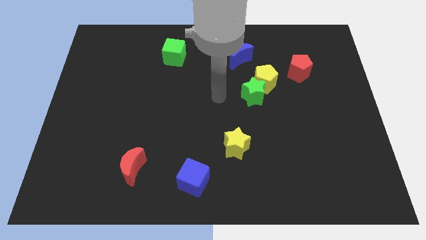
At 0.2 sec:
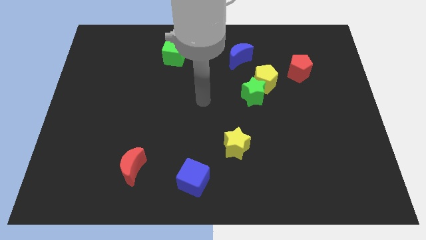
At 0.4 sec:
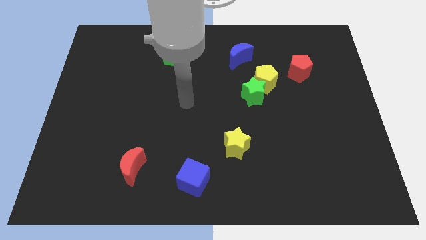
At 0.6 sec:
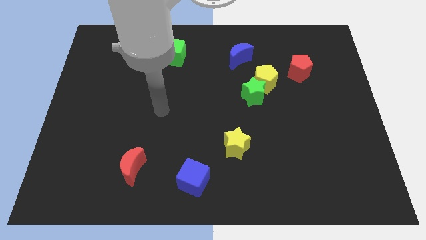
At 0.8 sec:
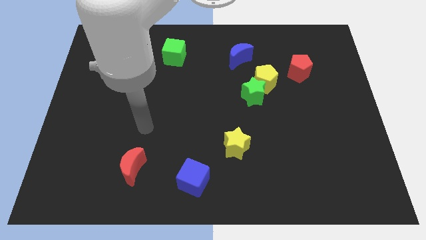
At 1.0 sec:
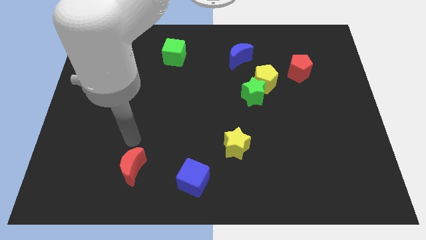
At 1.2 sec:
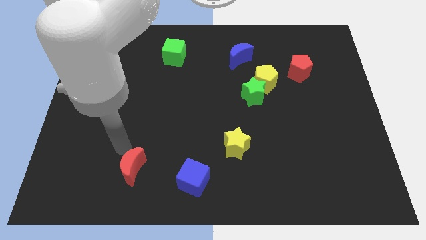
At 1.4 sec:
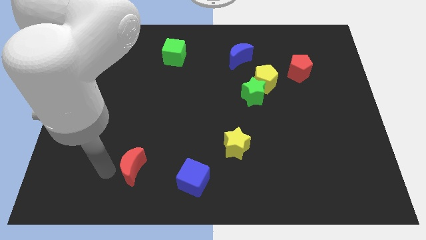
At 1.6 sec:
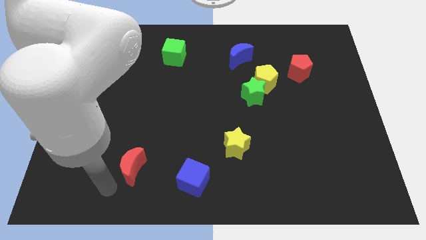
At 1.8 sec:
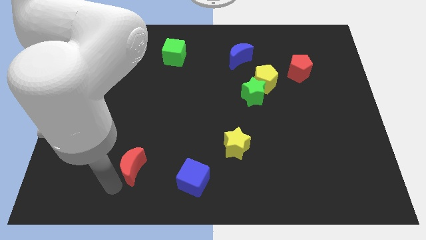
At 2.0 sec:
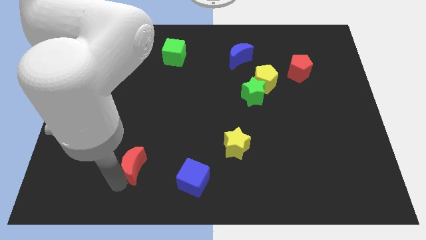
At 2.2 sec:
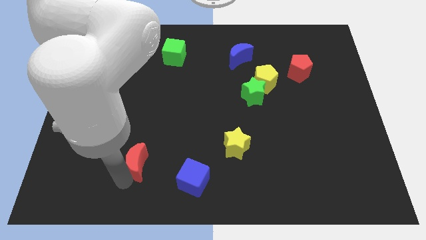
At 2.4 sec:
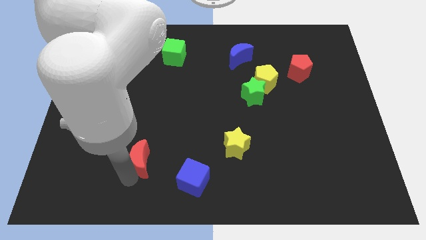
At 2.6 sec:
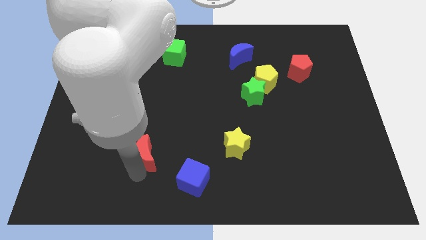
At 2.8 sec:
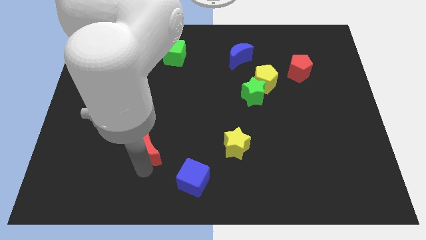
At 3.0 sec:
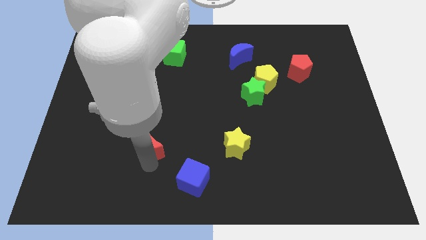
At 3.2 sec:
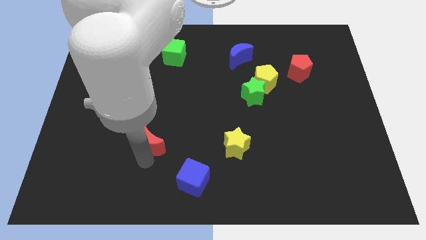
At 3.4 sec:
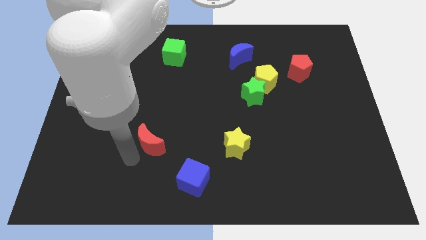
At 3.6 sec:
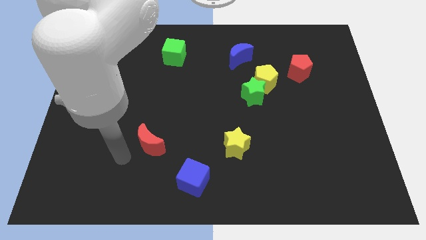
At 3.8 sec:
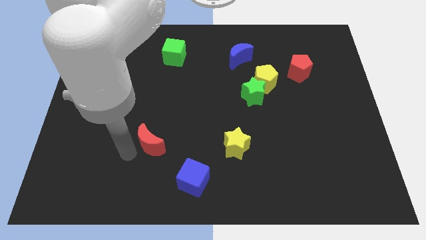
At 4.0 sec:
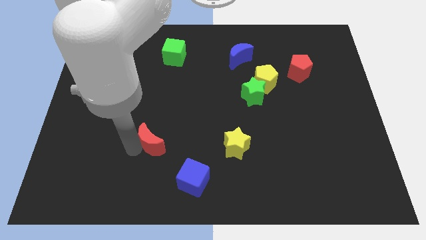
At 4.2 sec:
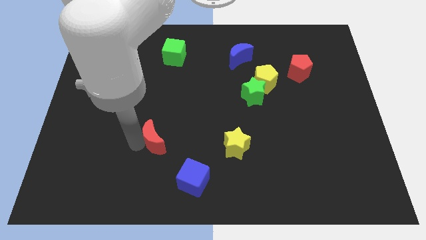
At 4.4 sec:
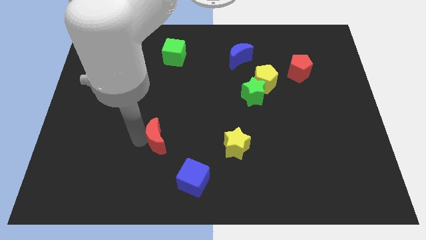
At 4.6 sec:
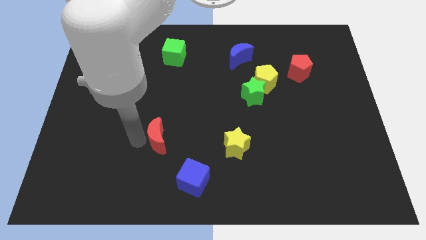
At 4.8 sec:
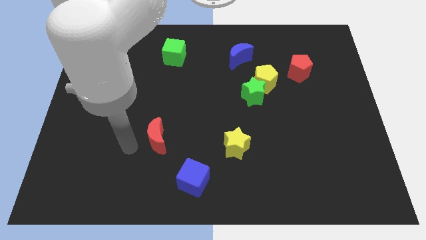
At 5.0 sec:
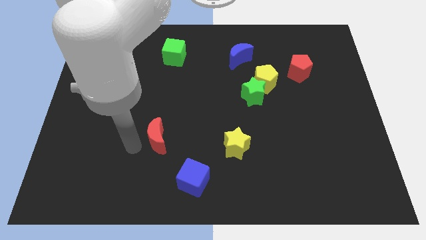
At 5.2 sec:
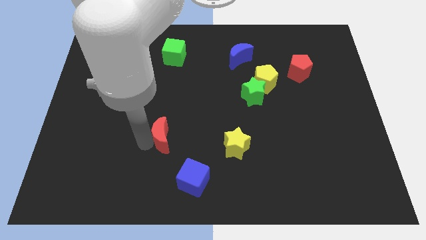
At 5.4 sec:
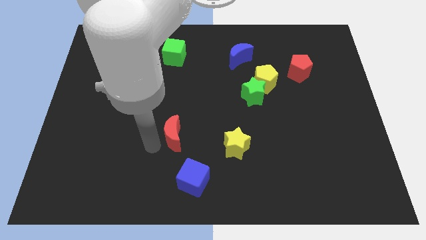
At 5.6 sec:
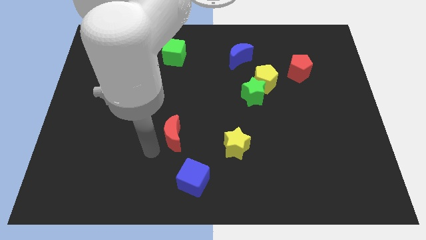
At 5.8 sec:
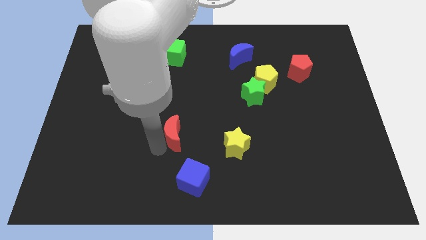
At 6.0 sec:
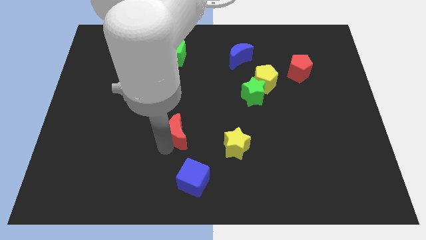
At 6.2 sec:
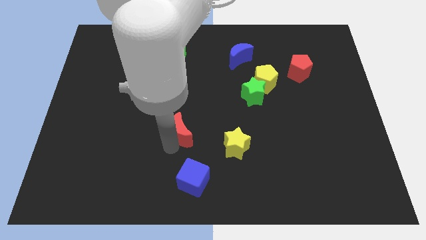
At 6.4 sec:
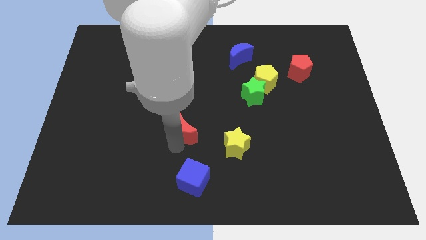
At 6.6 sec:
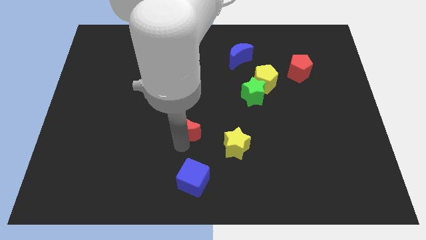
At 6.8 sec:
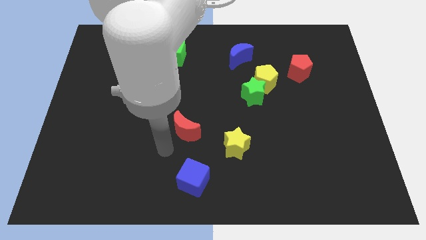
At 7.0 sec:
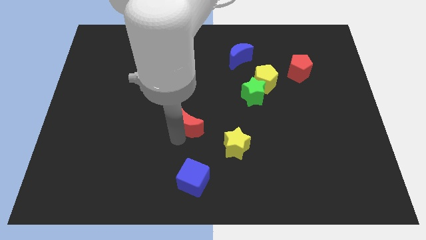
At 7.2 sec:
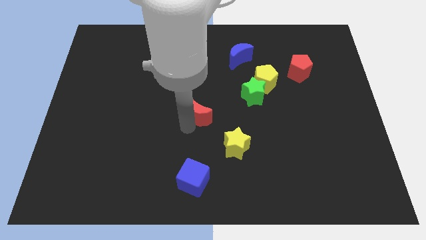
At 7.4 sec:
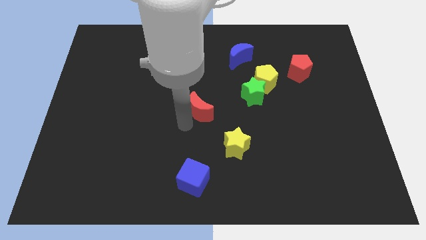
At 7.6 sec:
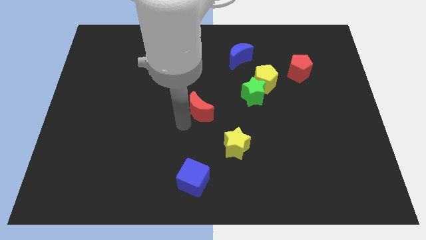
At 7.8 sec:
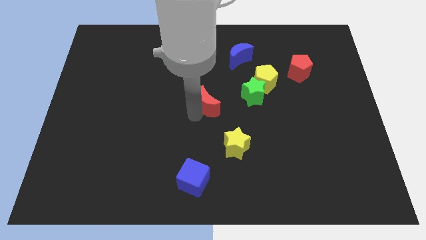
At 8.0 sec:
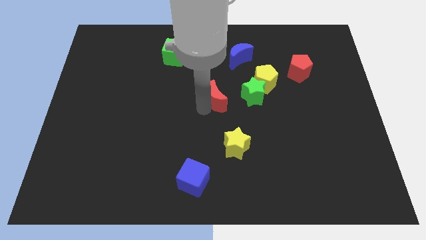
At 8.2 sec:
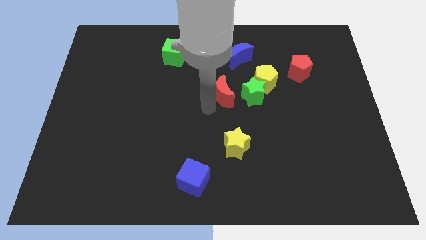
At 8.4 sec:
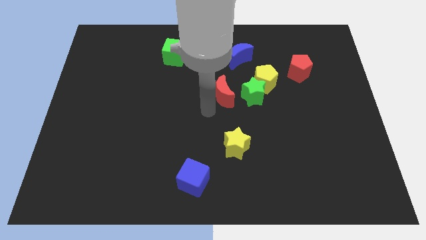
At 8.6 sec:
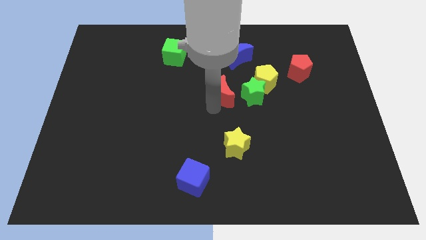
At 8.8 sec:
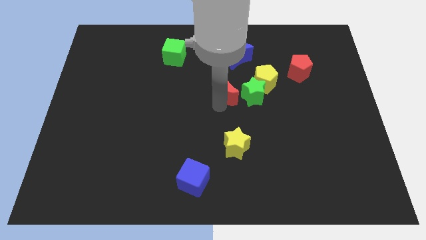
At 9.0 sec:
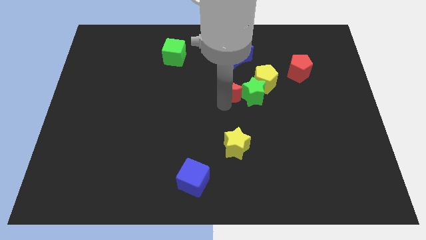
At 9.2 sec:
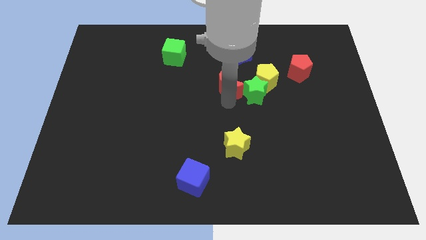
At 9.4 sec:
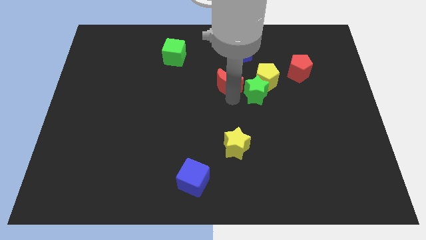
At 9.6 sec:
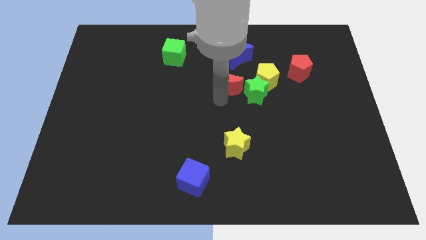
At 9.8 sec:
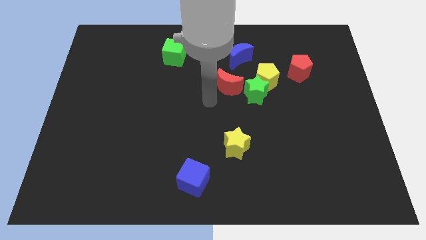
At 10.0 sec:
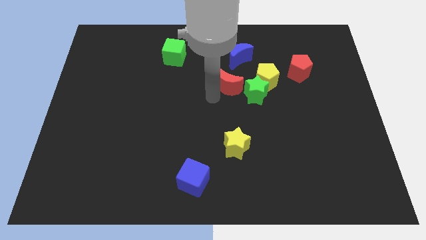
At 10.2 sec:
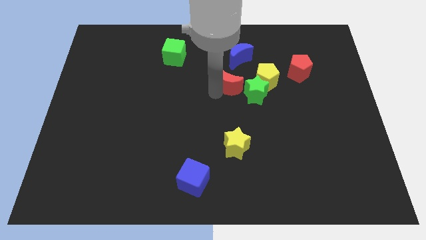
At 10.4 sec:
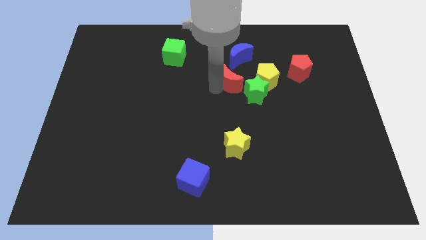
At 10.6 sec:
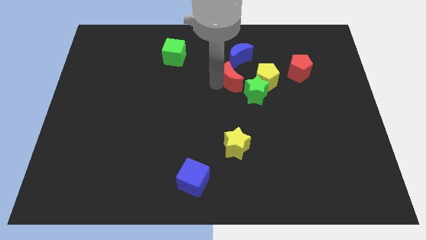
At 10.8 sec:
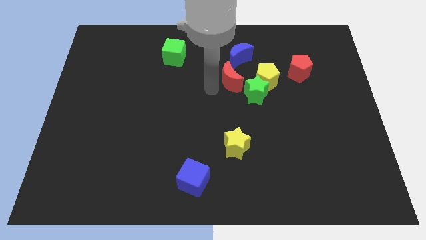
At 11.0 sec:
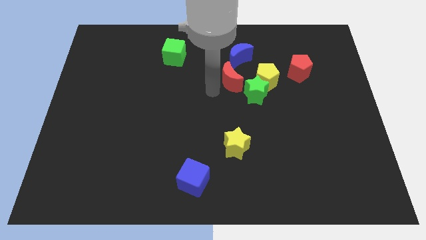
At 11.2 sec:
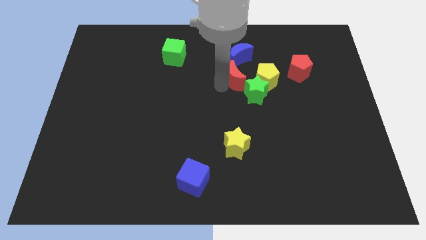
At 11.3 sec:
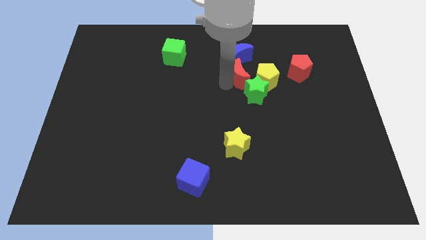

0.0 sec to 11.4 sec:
slide the red moon above the green star

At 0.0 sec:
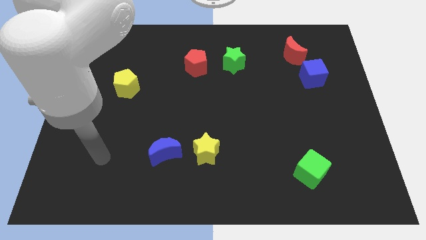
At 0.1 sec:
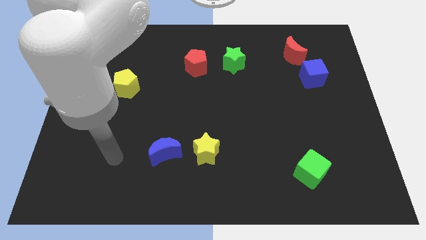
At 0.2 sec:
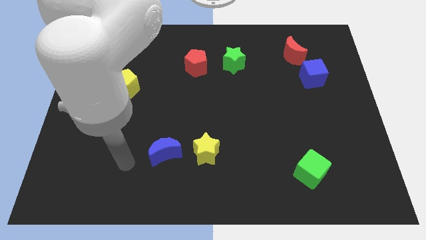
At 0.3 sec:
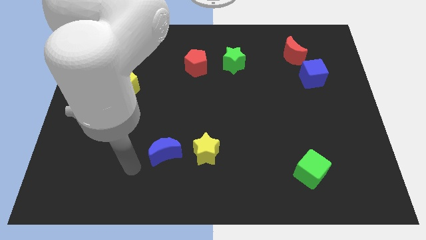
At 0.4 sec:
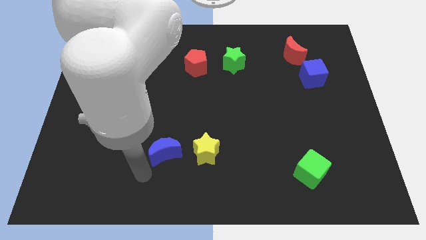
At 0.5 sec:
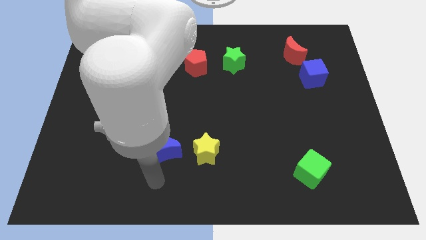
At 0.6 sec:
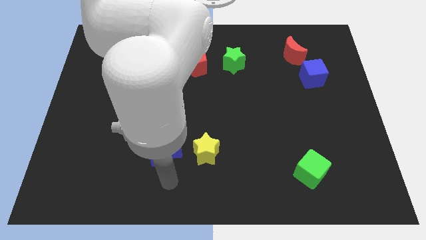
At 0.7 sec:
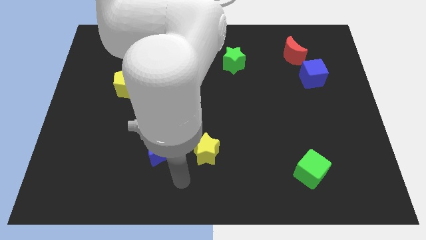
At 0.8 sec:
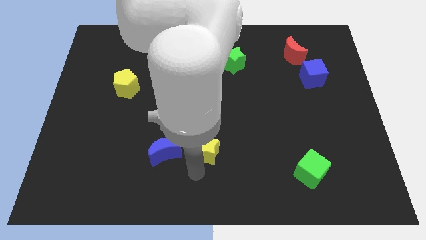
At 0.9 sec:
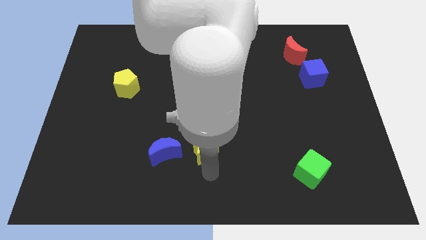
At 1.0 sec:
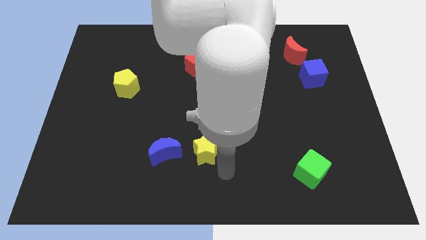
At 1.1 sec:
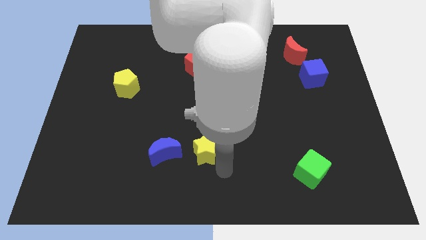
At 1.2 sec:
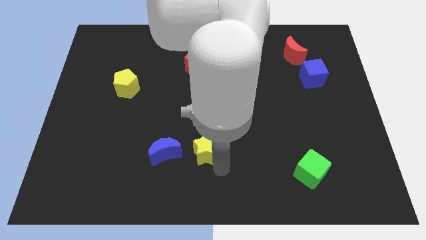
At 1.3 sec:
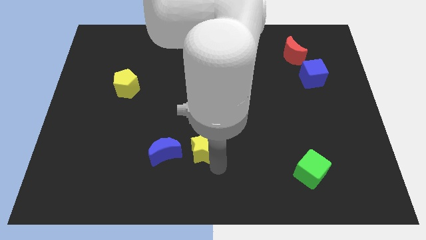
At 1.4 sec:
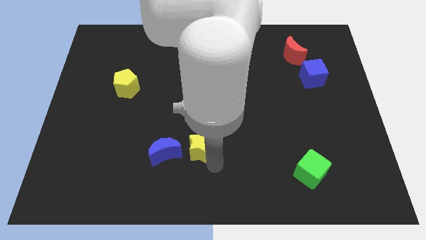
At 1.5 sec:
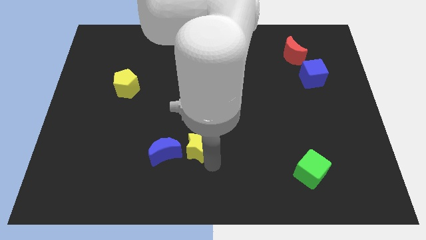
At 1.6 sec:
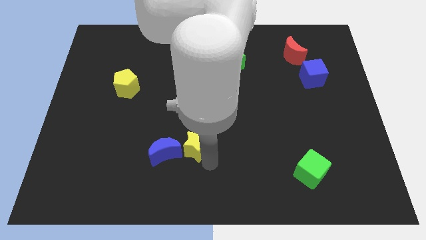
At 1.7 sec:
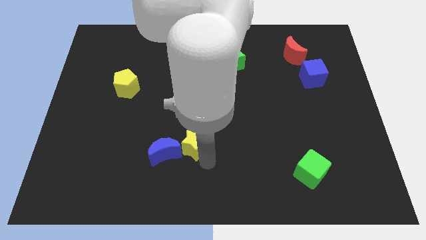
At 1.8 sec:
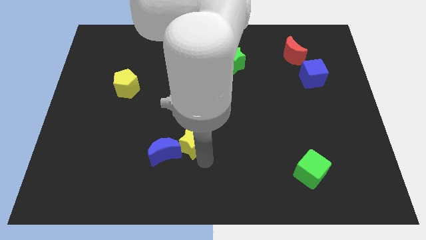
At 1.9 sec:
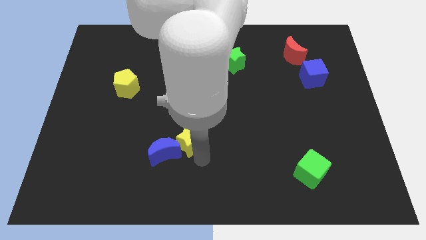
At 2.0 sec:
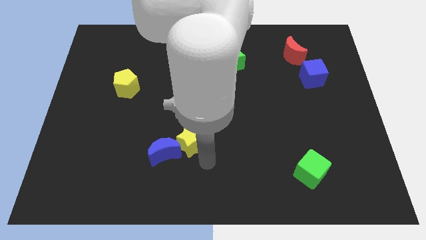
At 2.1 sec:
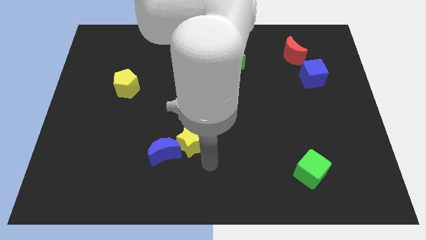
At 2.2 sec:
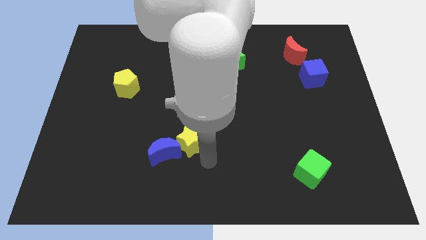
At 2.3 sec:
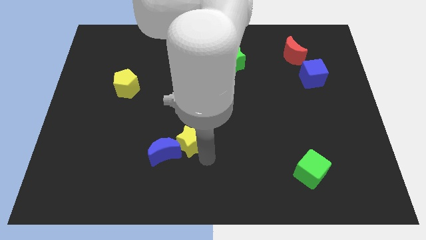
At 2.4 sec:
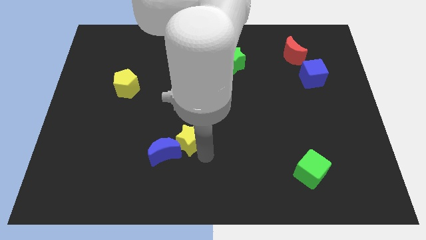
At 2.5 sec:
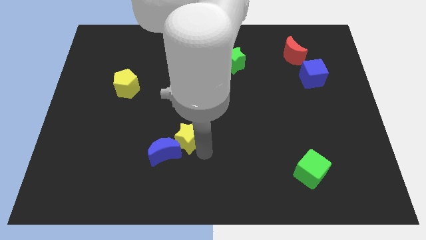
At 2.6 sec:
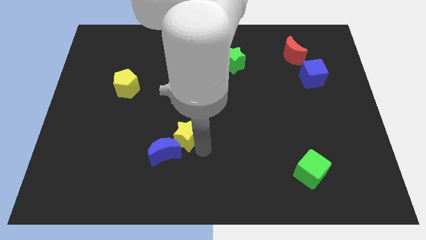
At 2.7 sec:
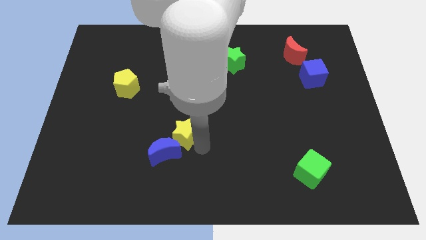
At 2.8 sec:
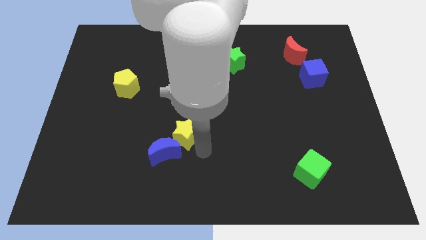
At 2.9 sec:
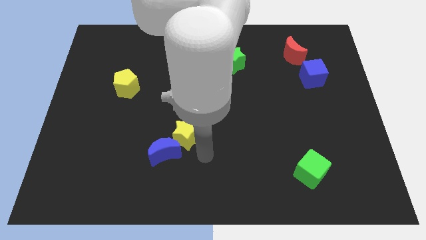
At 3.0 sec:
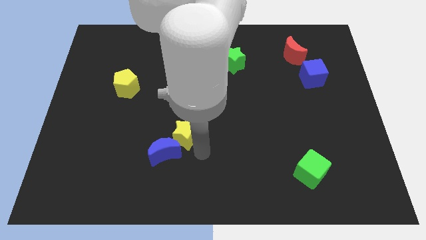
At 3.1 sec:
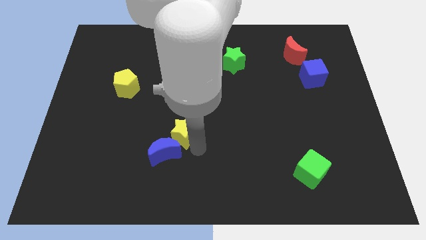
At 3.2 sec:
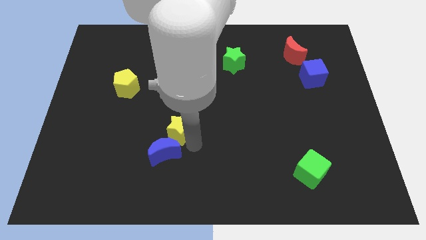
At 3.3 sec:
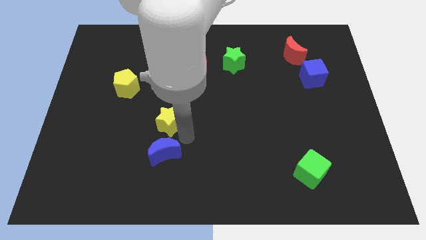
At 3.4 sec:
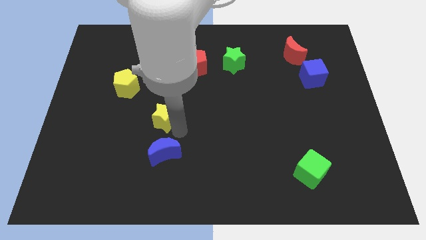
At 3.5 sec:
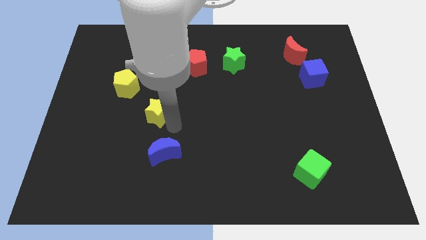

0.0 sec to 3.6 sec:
put the yellow star to the bottom right of the yellow pentagon
